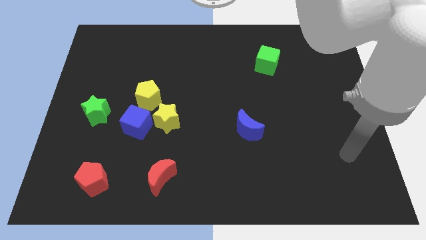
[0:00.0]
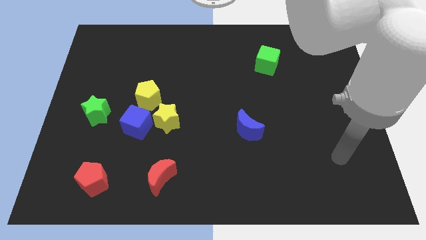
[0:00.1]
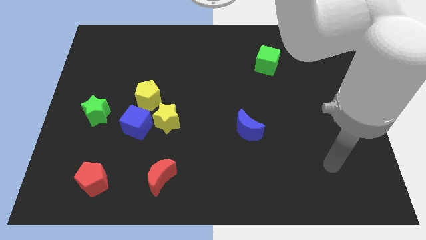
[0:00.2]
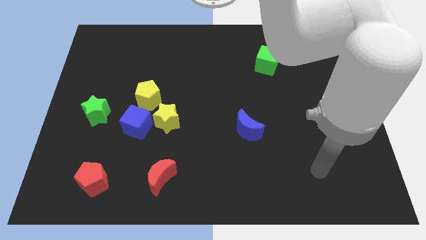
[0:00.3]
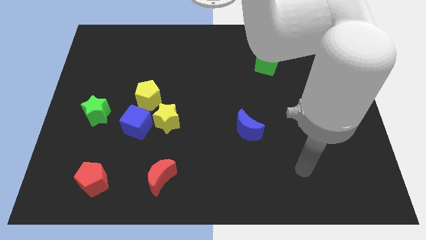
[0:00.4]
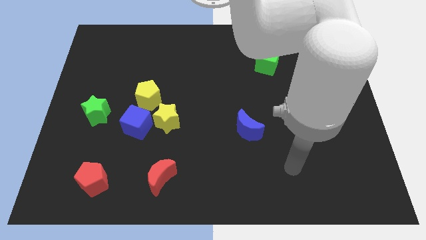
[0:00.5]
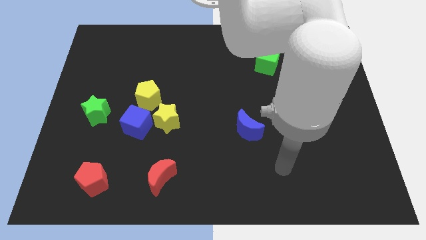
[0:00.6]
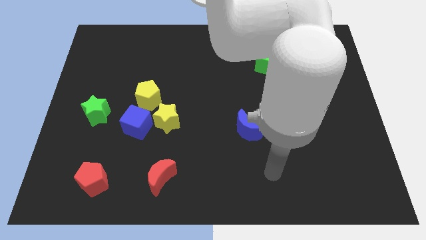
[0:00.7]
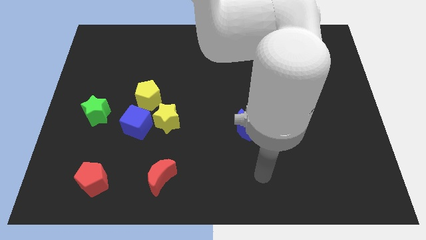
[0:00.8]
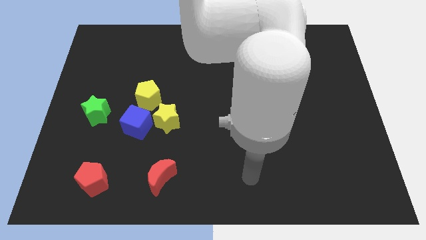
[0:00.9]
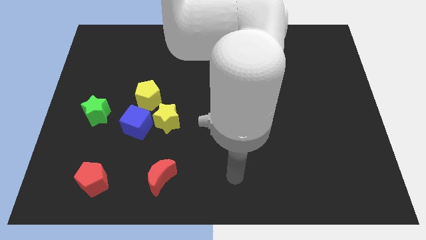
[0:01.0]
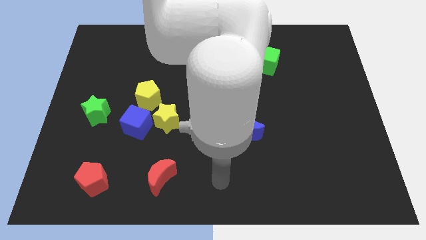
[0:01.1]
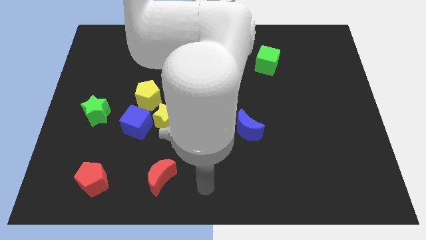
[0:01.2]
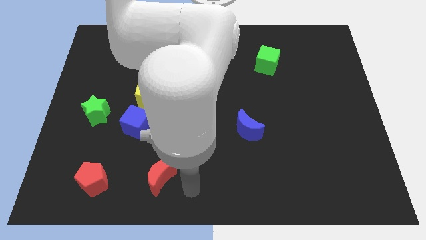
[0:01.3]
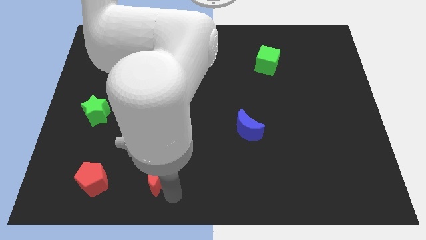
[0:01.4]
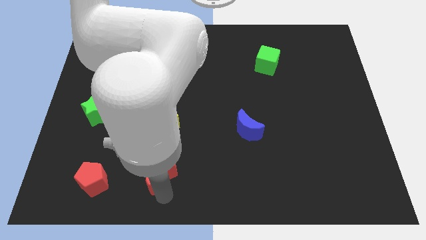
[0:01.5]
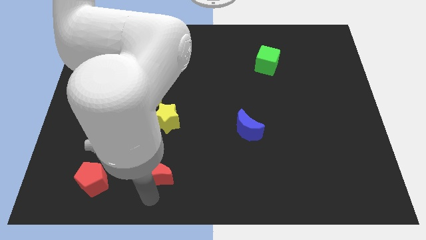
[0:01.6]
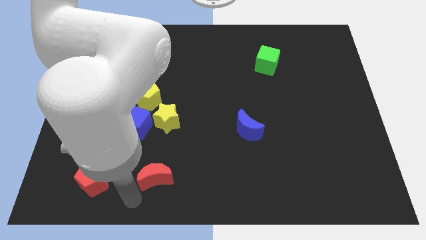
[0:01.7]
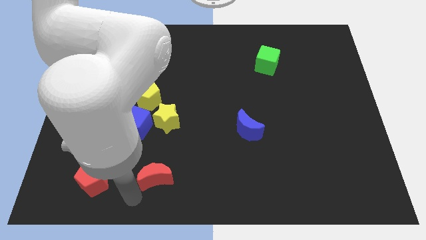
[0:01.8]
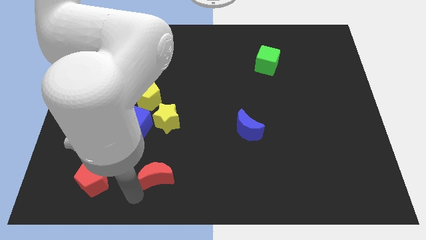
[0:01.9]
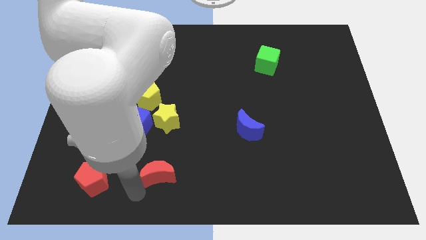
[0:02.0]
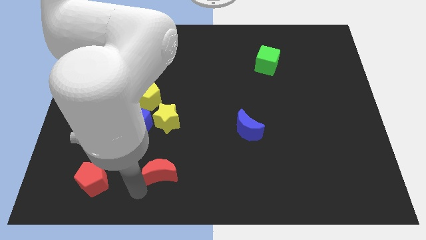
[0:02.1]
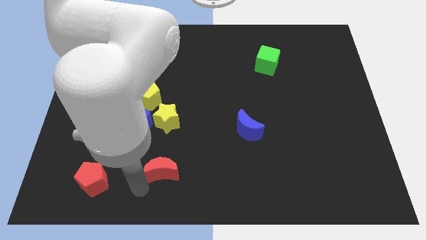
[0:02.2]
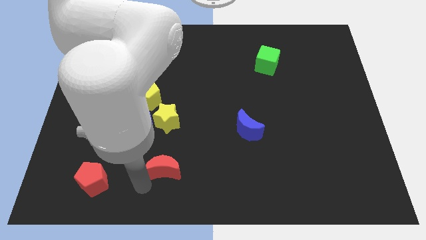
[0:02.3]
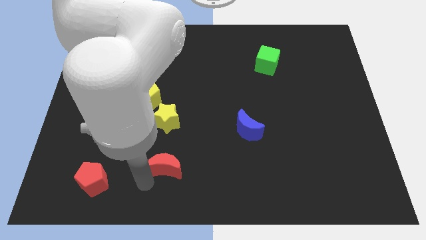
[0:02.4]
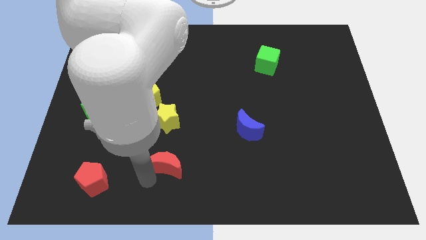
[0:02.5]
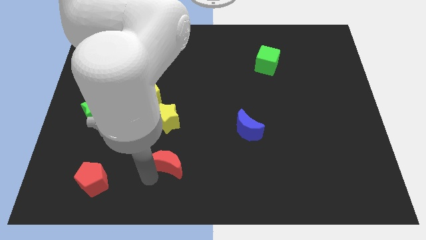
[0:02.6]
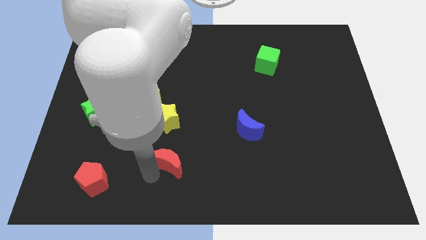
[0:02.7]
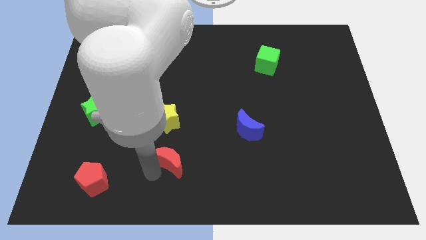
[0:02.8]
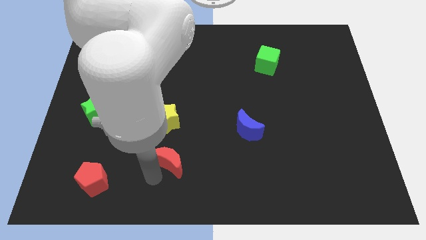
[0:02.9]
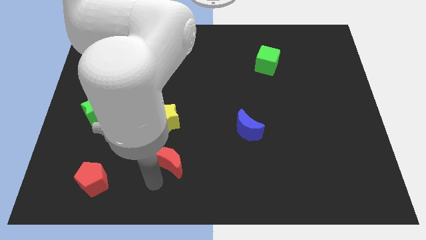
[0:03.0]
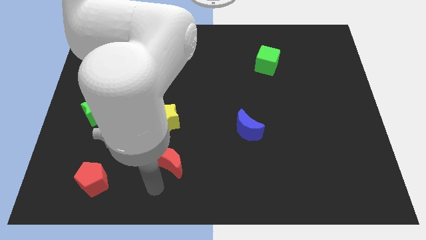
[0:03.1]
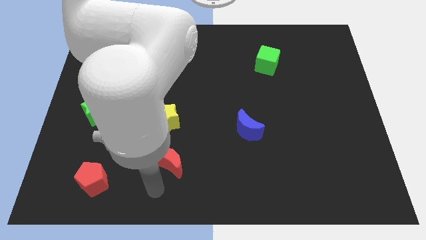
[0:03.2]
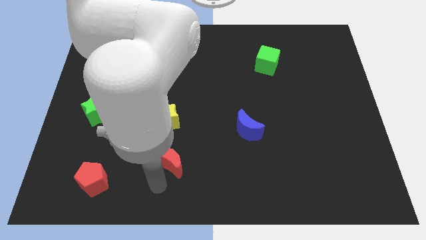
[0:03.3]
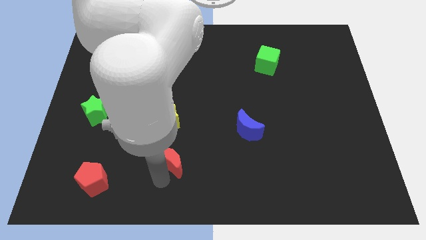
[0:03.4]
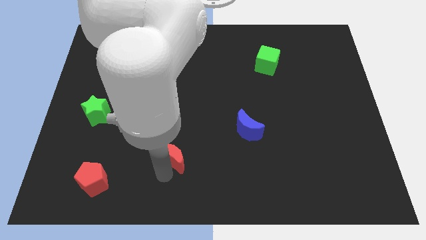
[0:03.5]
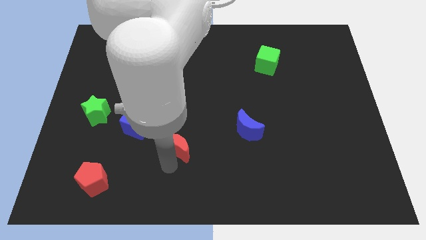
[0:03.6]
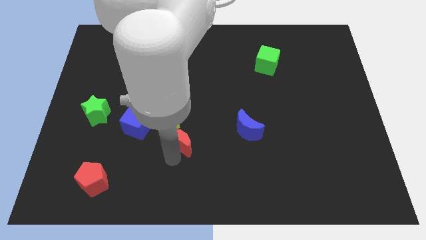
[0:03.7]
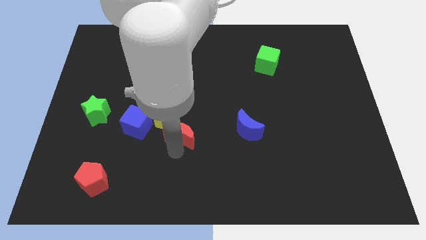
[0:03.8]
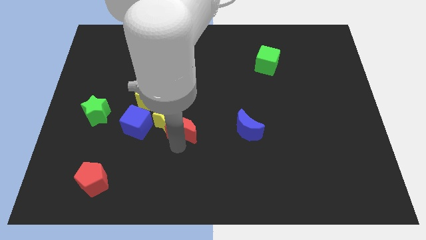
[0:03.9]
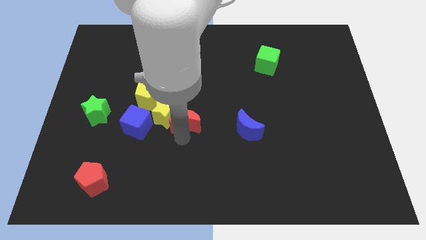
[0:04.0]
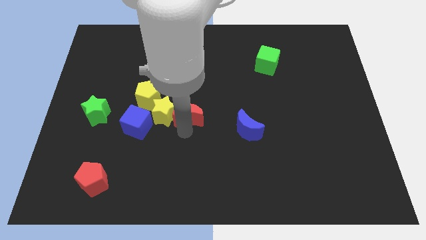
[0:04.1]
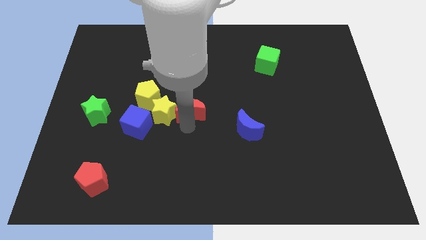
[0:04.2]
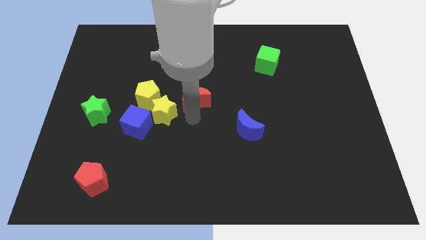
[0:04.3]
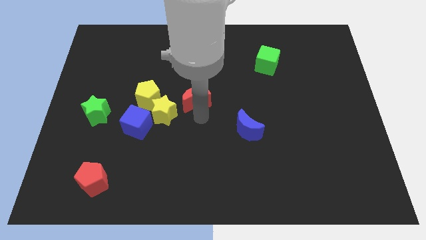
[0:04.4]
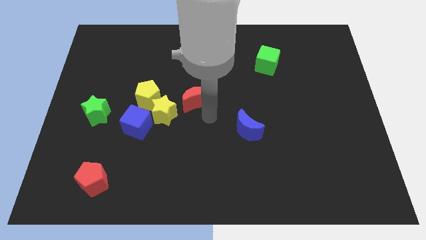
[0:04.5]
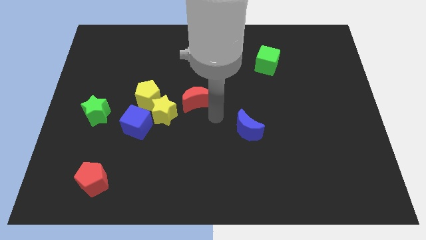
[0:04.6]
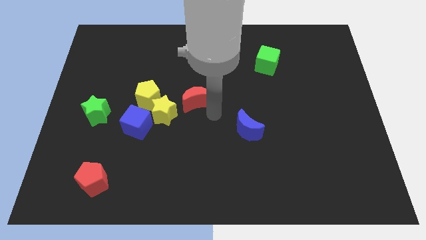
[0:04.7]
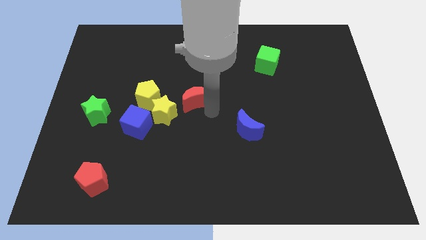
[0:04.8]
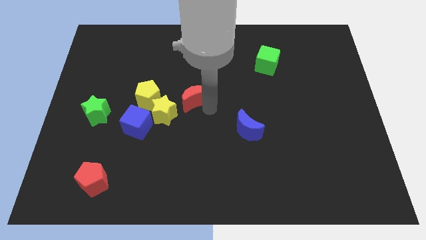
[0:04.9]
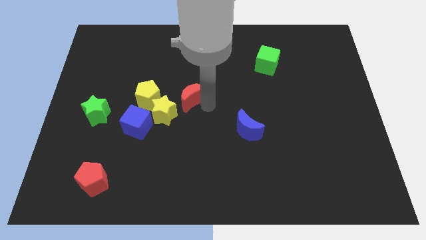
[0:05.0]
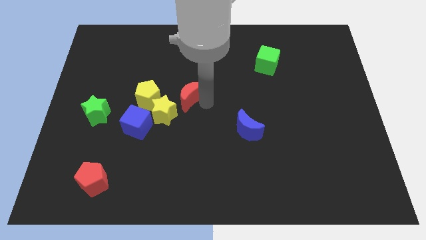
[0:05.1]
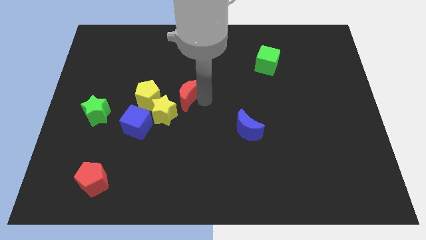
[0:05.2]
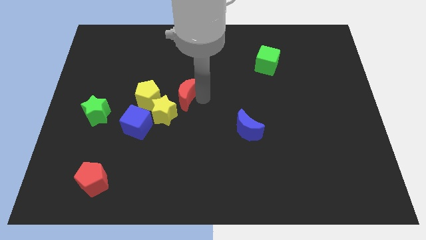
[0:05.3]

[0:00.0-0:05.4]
put the red moon to the top side of the yellow star

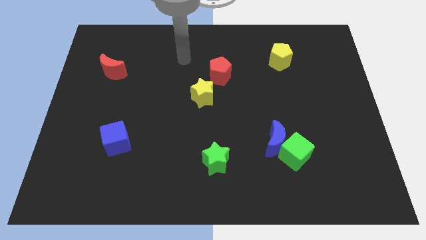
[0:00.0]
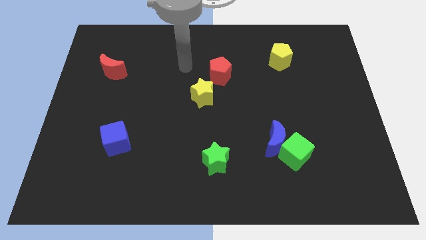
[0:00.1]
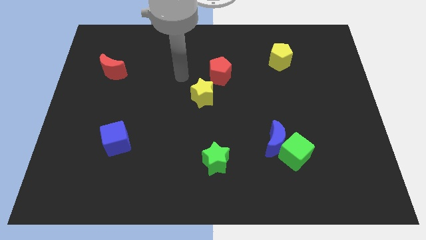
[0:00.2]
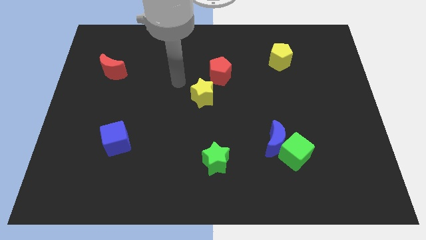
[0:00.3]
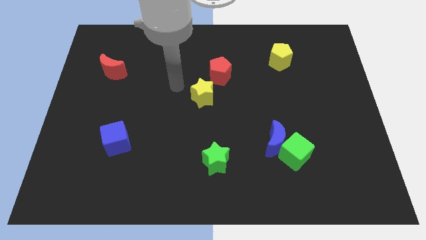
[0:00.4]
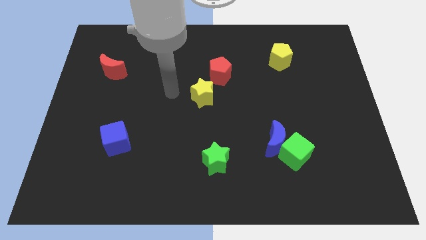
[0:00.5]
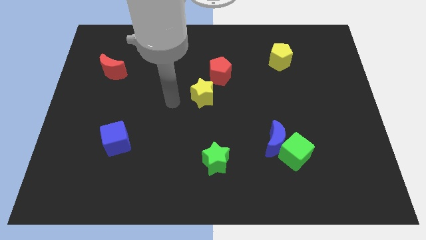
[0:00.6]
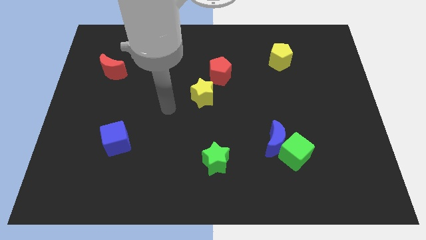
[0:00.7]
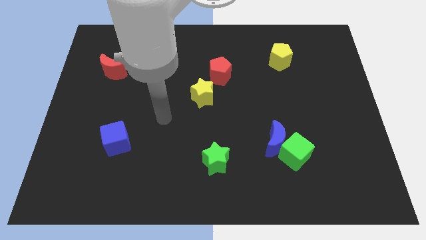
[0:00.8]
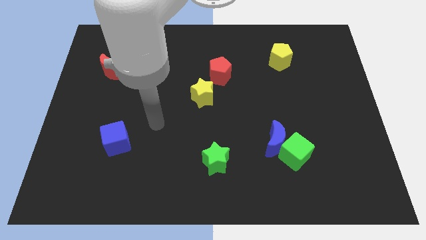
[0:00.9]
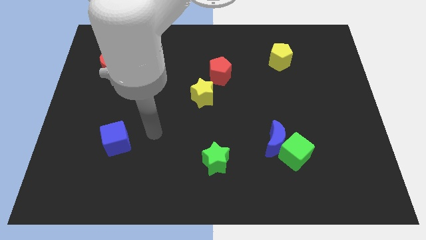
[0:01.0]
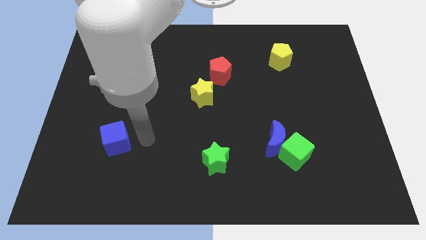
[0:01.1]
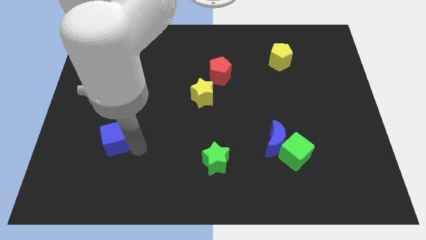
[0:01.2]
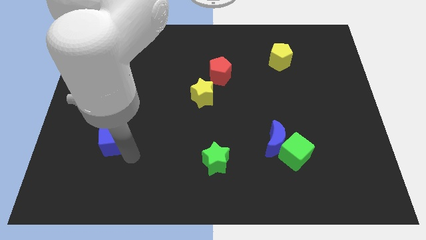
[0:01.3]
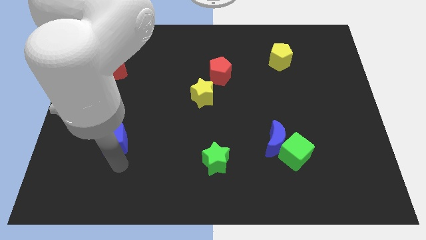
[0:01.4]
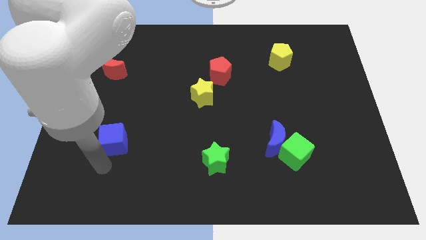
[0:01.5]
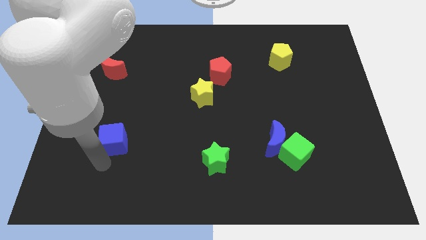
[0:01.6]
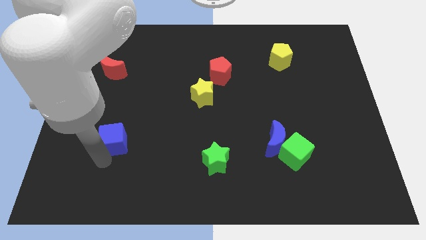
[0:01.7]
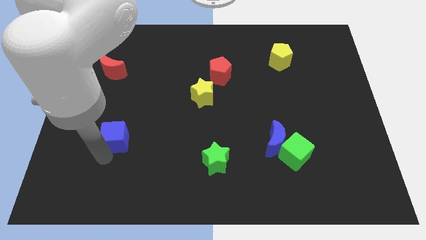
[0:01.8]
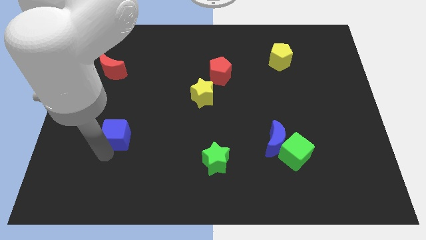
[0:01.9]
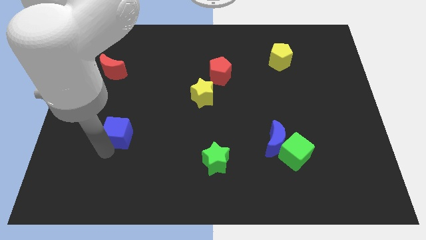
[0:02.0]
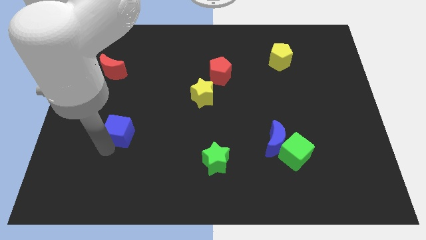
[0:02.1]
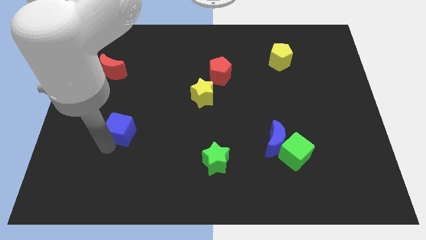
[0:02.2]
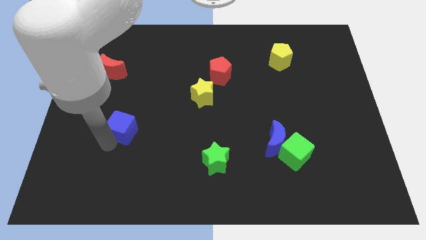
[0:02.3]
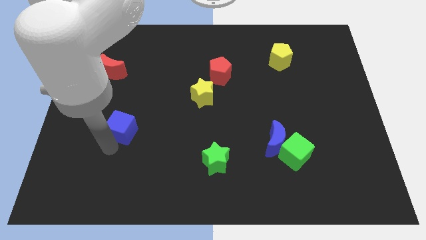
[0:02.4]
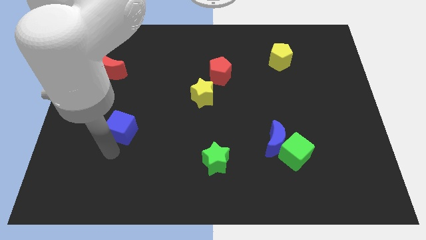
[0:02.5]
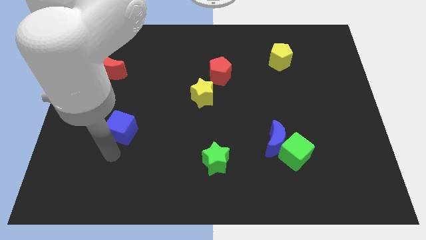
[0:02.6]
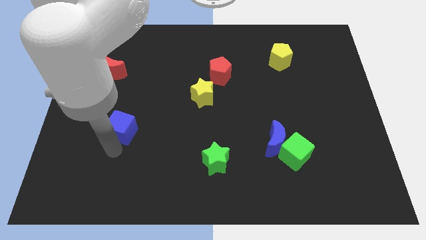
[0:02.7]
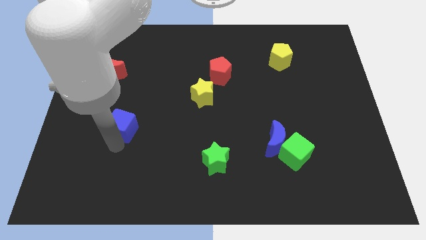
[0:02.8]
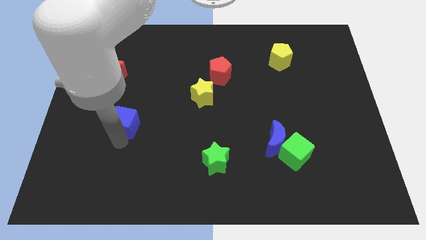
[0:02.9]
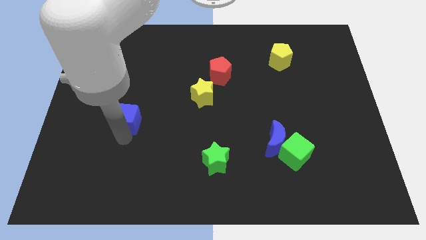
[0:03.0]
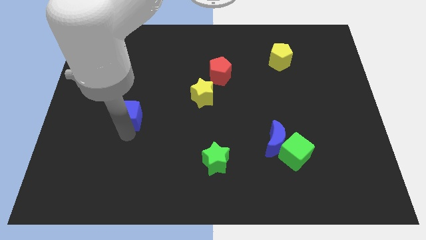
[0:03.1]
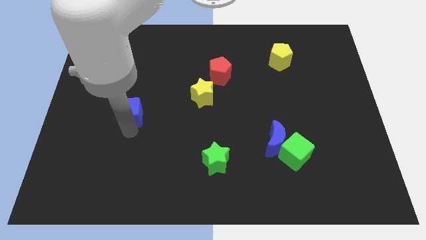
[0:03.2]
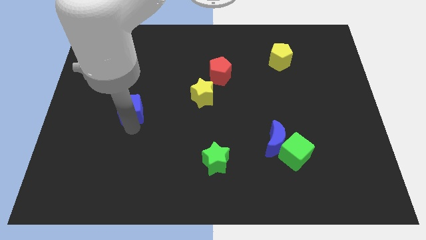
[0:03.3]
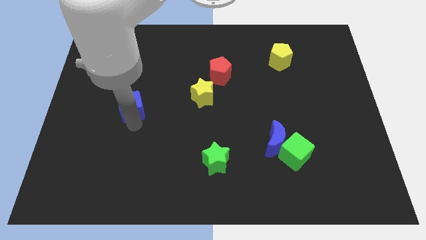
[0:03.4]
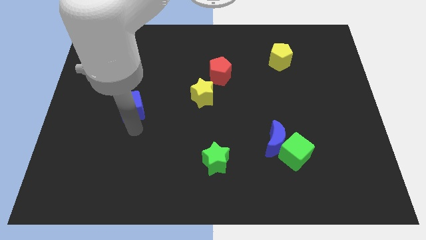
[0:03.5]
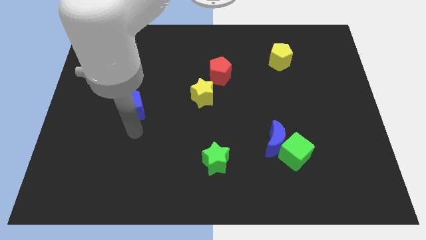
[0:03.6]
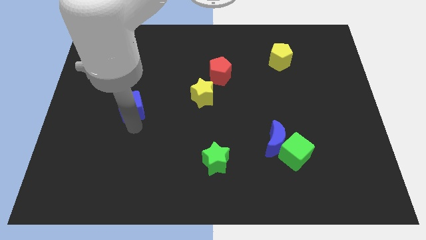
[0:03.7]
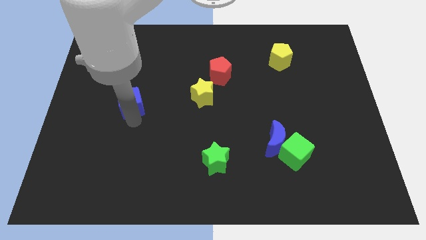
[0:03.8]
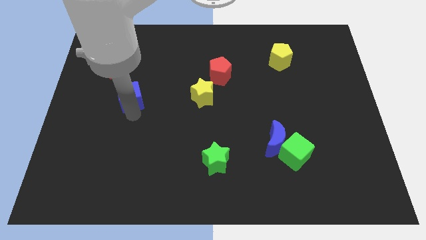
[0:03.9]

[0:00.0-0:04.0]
push the blue cube to the bottom right side of the red moon
